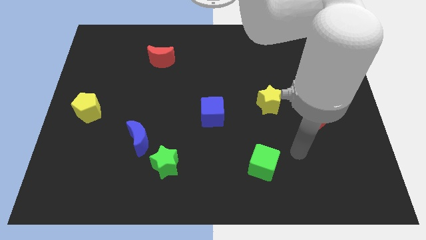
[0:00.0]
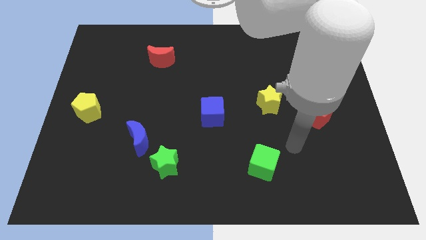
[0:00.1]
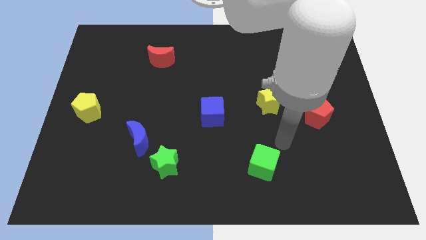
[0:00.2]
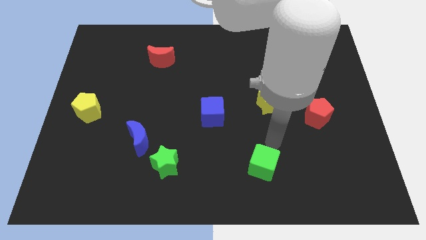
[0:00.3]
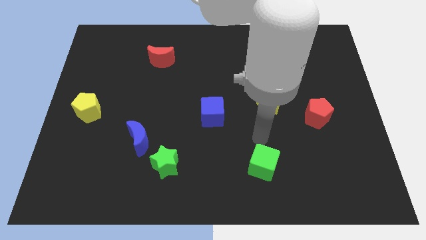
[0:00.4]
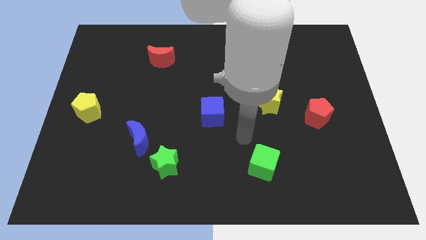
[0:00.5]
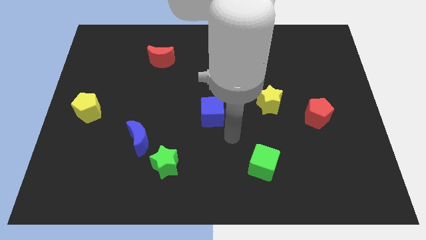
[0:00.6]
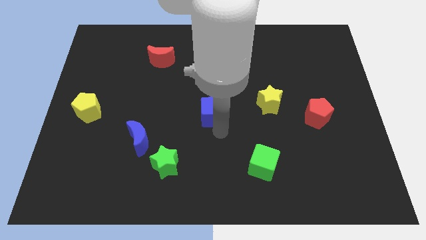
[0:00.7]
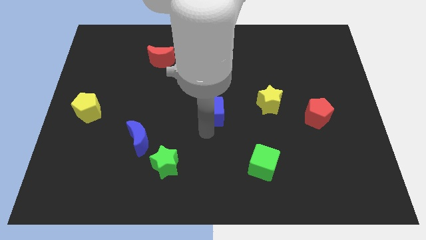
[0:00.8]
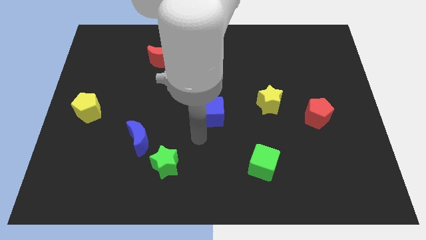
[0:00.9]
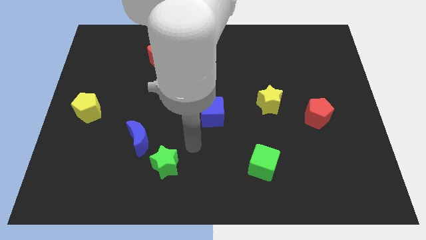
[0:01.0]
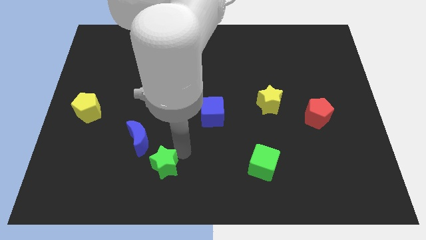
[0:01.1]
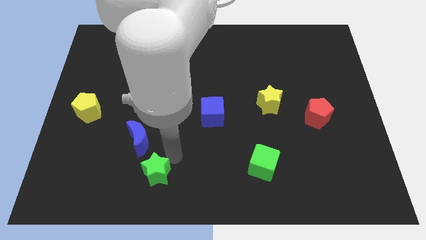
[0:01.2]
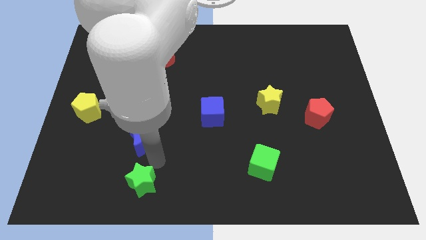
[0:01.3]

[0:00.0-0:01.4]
move the blue moon away from the green star

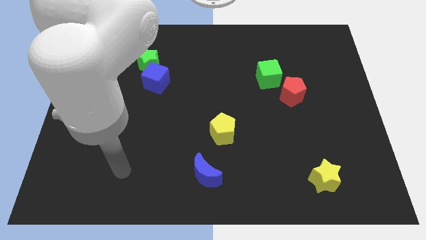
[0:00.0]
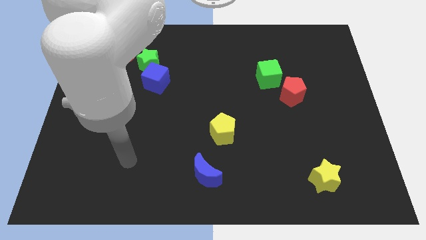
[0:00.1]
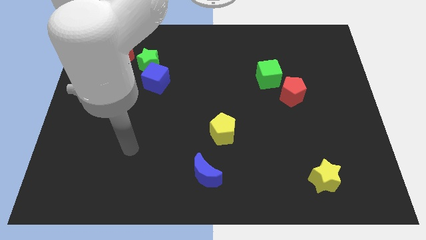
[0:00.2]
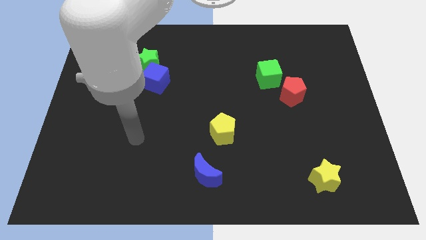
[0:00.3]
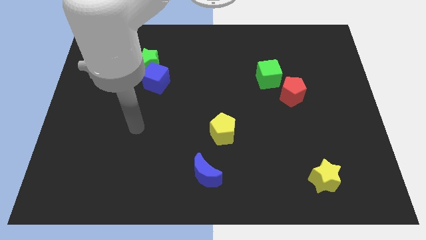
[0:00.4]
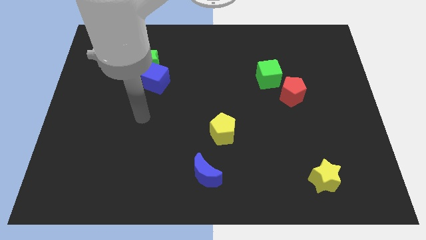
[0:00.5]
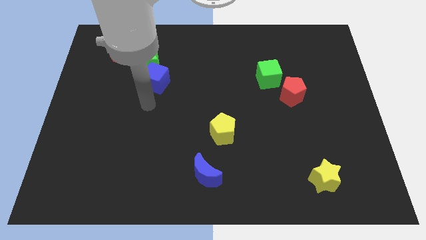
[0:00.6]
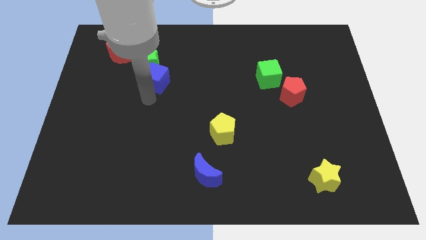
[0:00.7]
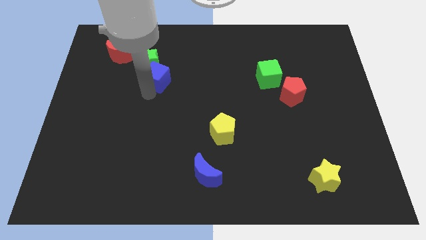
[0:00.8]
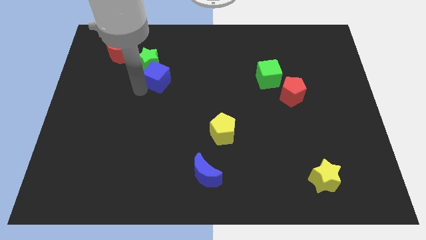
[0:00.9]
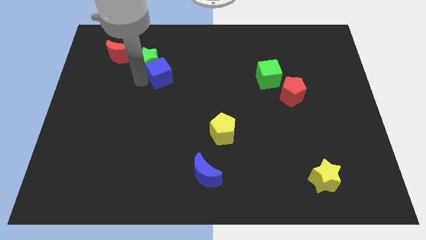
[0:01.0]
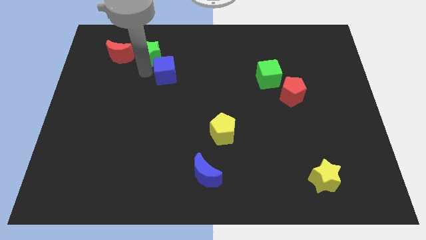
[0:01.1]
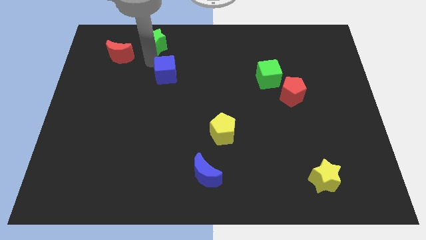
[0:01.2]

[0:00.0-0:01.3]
move the blue cube away from the green star

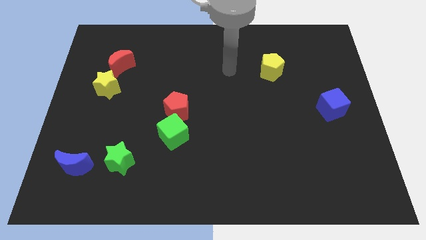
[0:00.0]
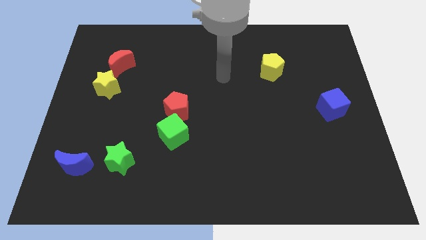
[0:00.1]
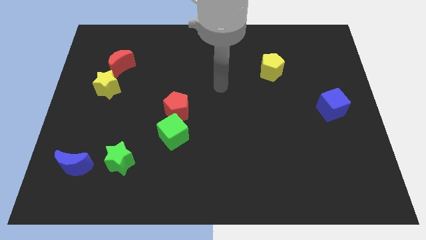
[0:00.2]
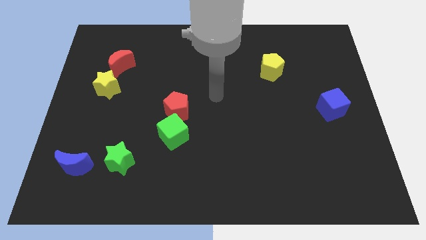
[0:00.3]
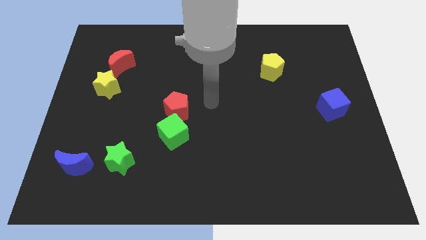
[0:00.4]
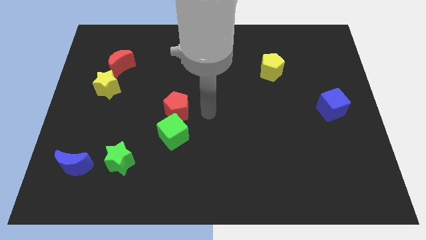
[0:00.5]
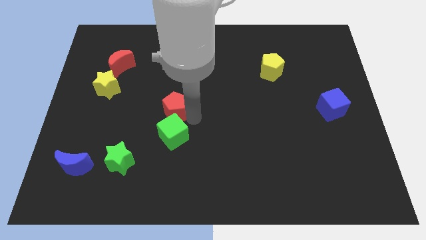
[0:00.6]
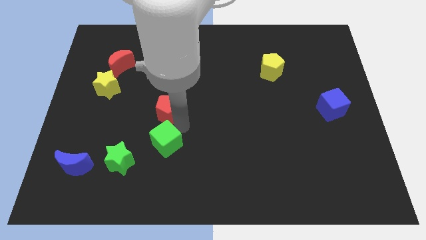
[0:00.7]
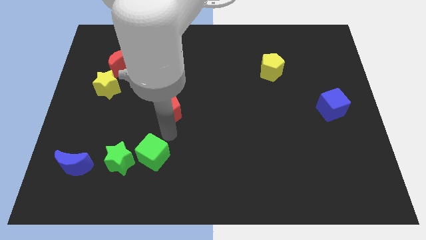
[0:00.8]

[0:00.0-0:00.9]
pull the red pentagon apart from the green cube

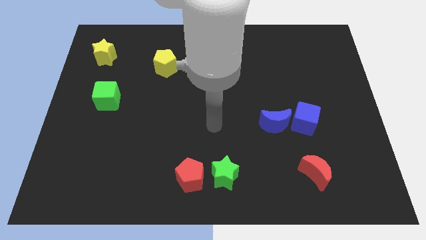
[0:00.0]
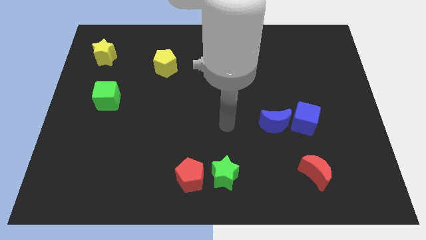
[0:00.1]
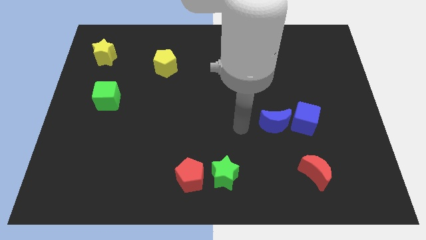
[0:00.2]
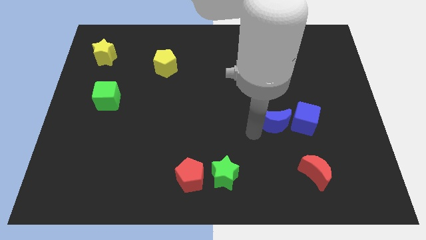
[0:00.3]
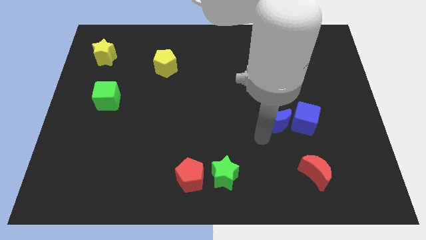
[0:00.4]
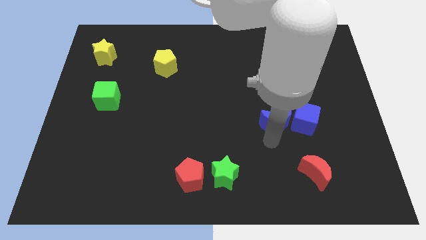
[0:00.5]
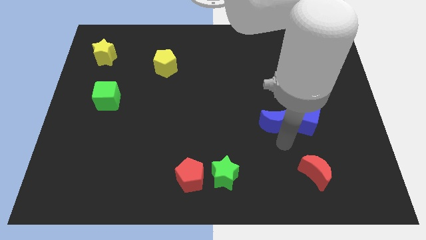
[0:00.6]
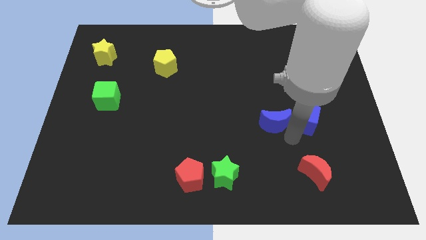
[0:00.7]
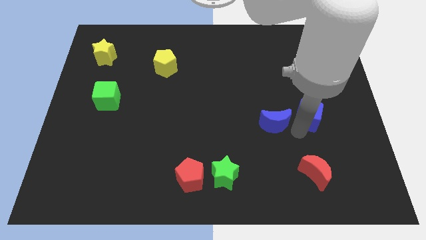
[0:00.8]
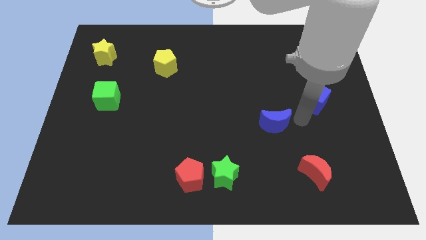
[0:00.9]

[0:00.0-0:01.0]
pull the blue moon apart from the blue cube

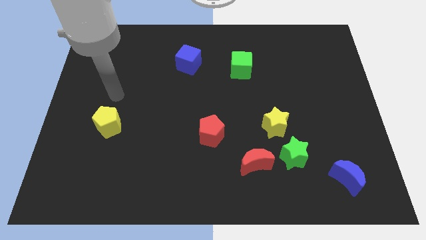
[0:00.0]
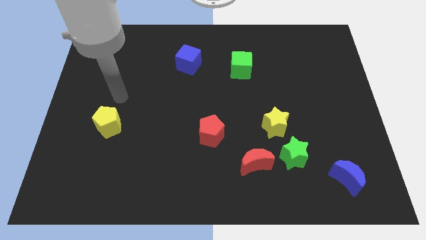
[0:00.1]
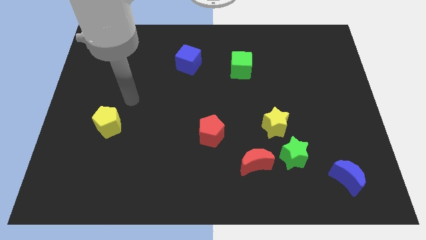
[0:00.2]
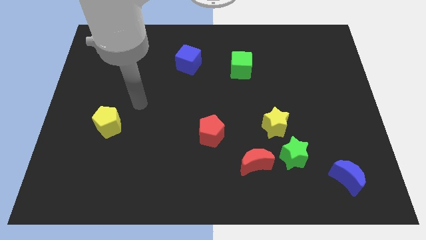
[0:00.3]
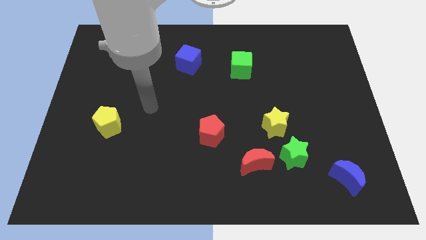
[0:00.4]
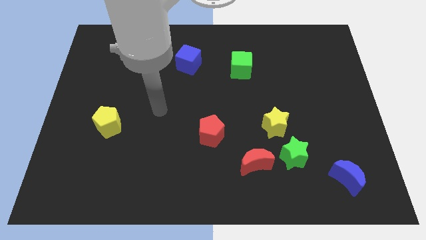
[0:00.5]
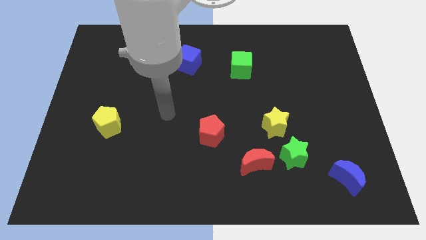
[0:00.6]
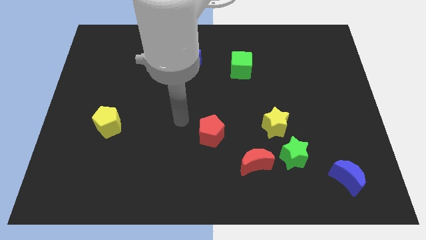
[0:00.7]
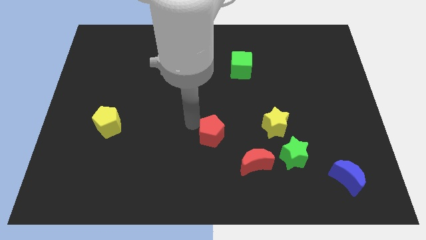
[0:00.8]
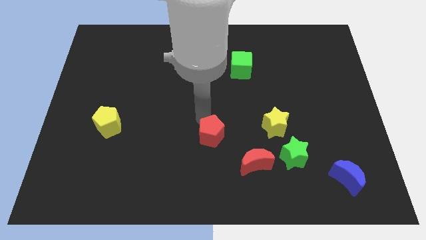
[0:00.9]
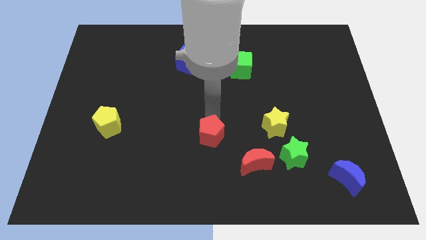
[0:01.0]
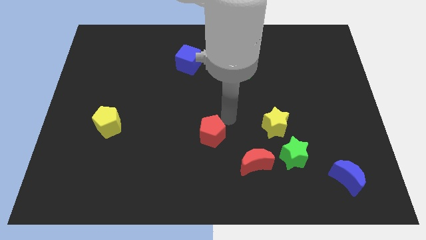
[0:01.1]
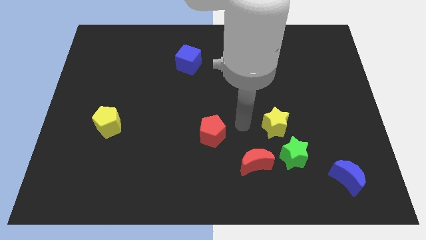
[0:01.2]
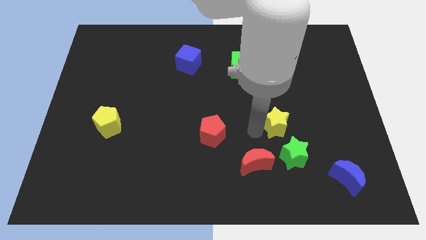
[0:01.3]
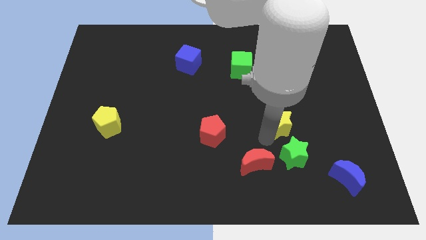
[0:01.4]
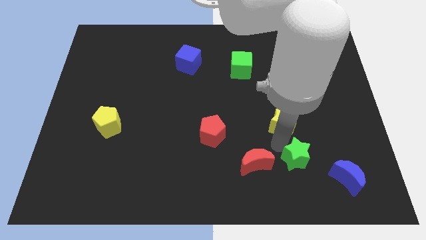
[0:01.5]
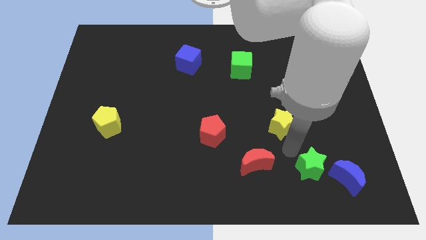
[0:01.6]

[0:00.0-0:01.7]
move the yellow star away from the green star

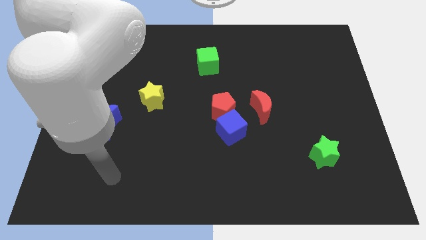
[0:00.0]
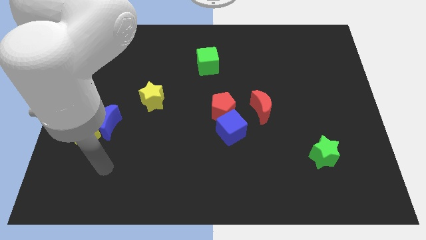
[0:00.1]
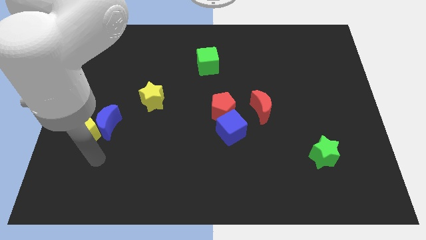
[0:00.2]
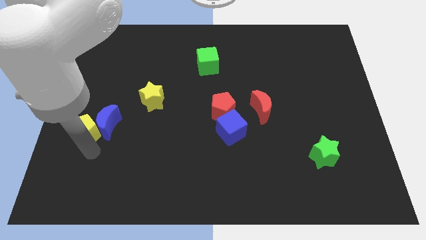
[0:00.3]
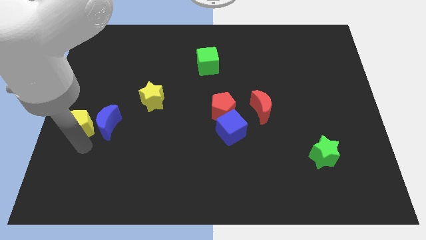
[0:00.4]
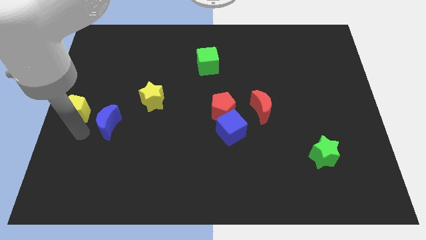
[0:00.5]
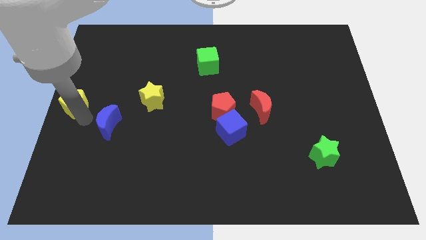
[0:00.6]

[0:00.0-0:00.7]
move the blue moon away from the yellow pentagon

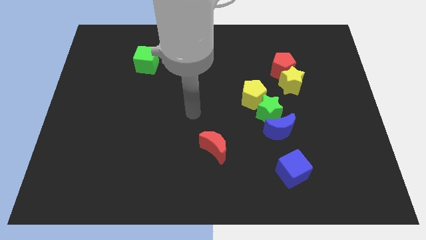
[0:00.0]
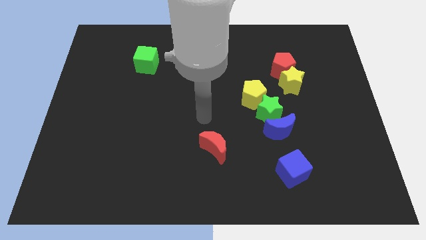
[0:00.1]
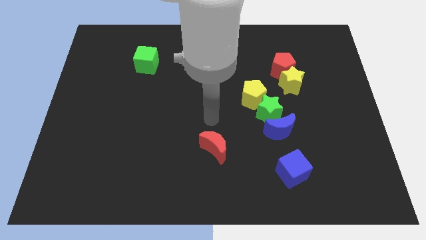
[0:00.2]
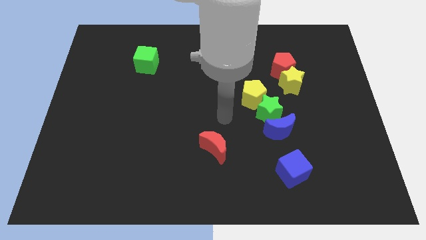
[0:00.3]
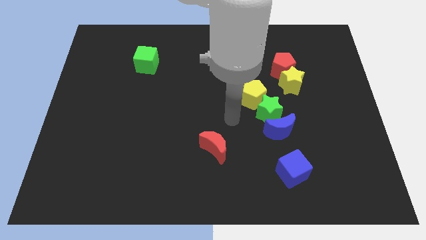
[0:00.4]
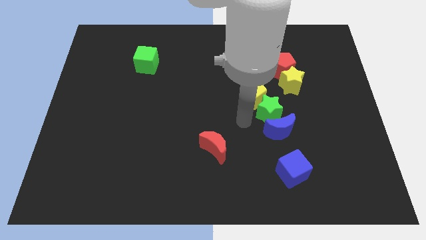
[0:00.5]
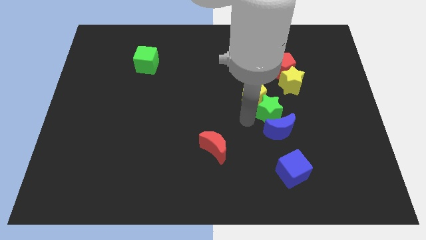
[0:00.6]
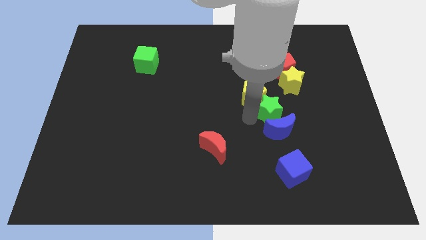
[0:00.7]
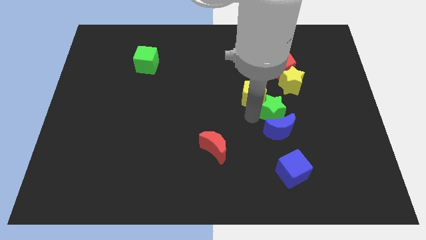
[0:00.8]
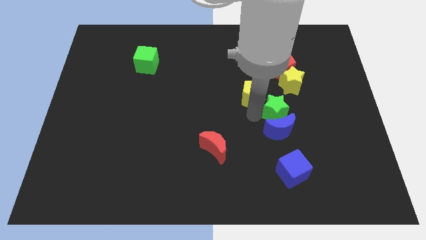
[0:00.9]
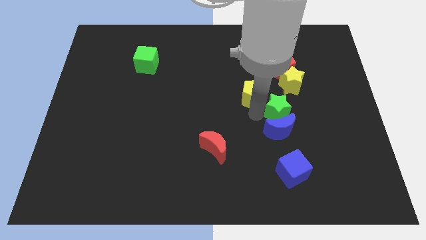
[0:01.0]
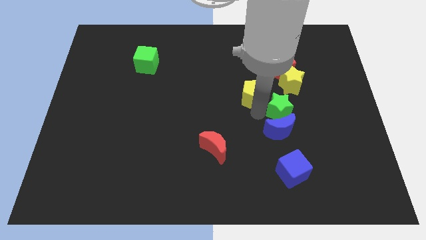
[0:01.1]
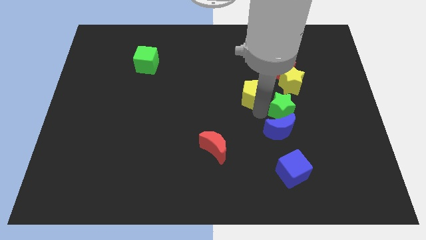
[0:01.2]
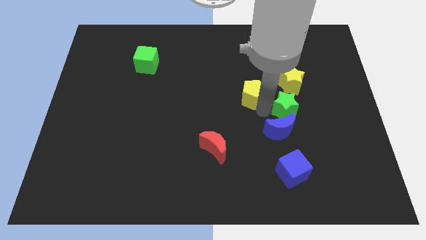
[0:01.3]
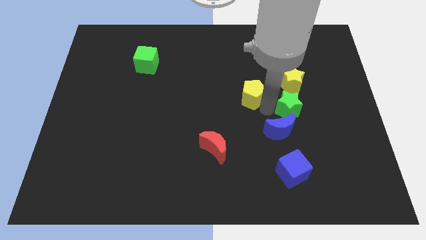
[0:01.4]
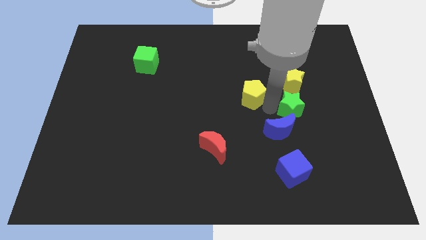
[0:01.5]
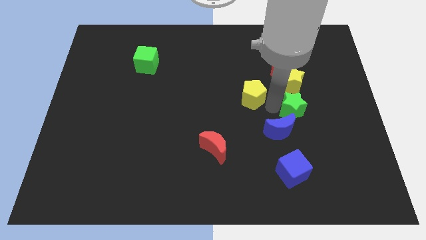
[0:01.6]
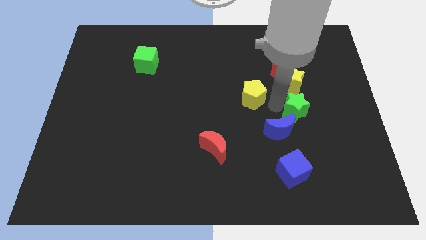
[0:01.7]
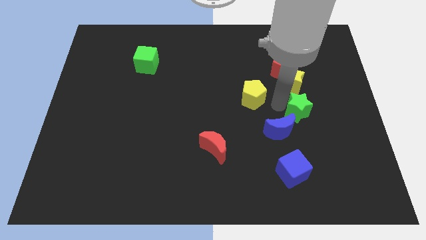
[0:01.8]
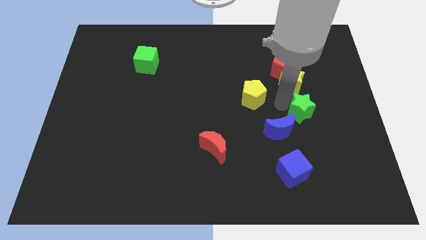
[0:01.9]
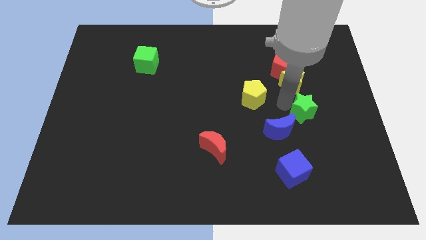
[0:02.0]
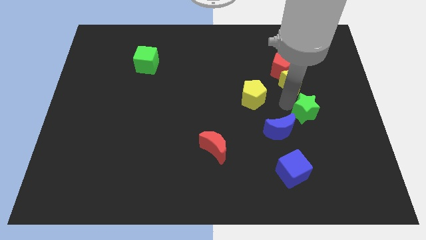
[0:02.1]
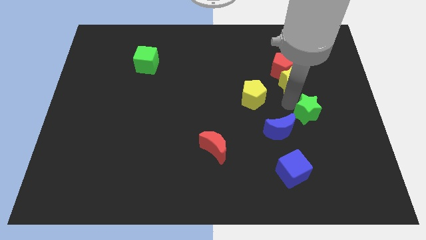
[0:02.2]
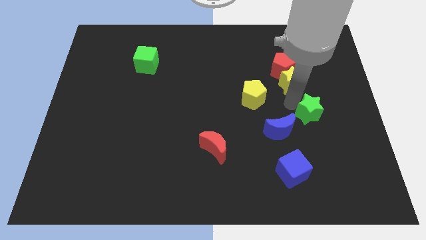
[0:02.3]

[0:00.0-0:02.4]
separate the green star from the blue moon and yellow pentagon

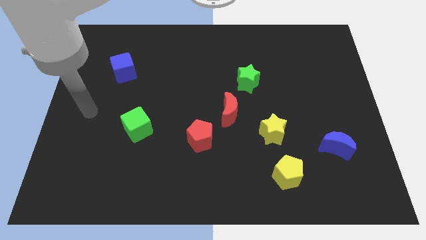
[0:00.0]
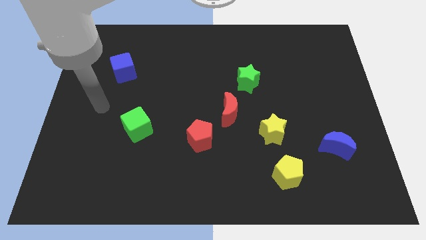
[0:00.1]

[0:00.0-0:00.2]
move the red moon away from the red pentagon
